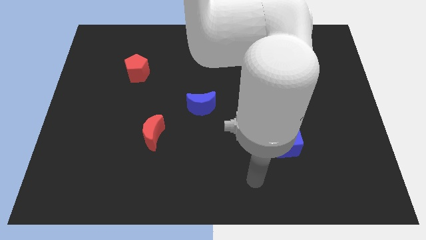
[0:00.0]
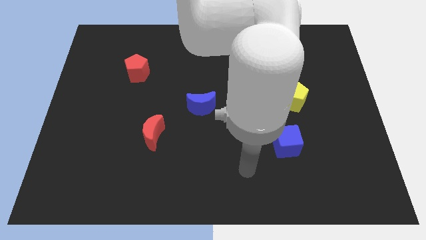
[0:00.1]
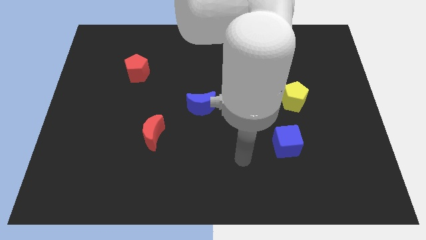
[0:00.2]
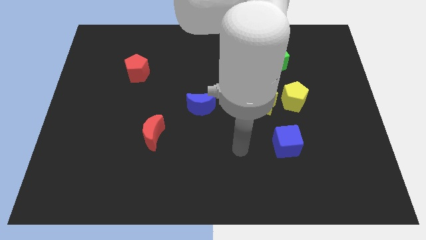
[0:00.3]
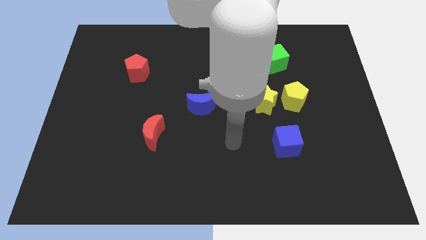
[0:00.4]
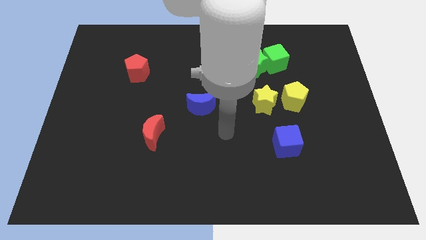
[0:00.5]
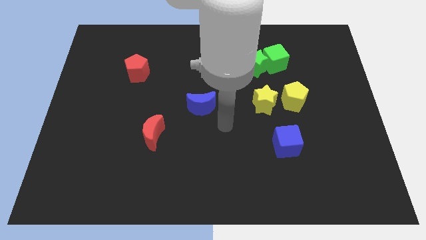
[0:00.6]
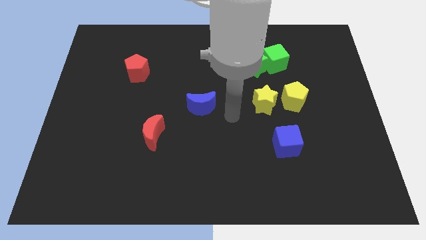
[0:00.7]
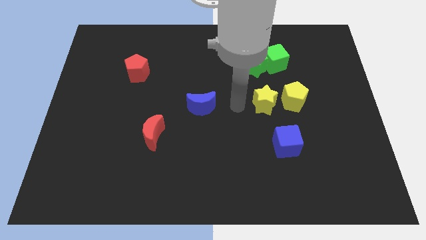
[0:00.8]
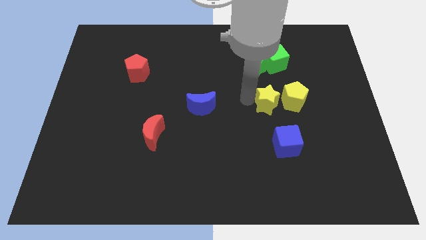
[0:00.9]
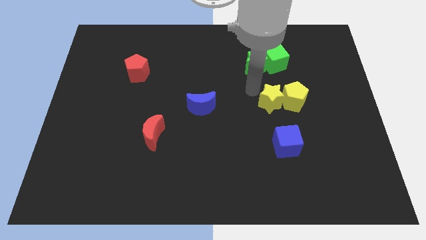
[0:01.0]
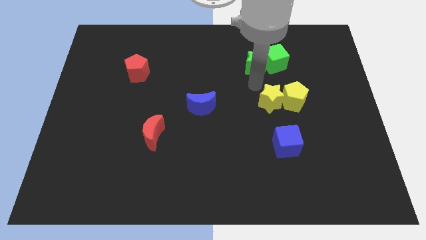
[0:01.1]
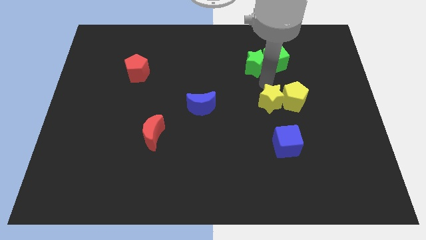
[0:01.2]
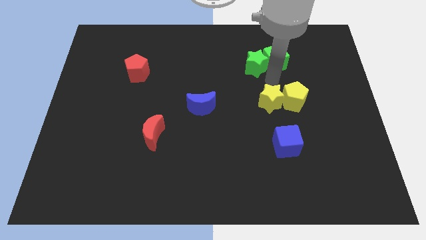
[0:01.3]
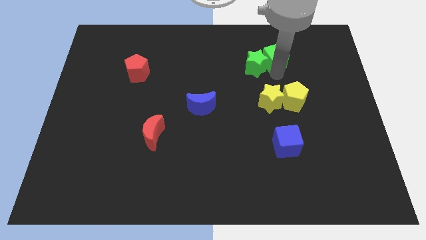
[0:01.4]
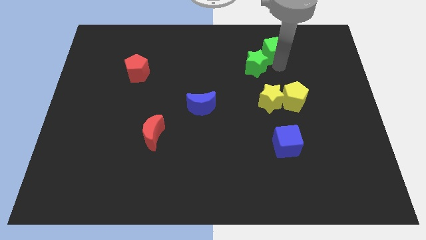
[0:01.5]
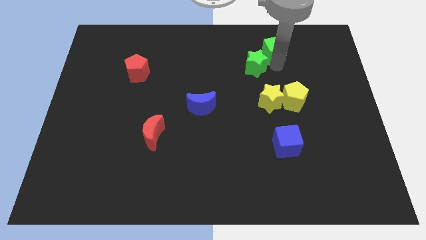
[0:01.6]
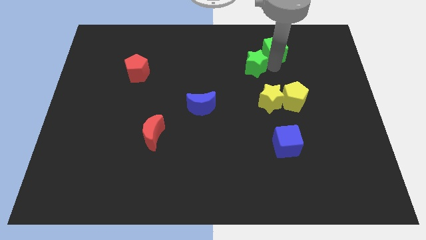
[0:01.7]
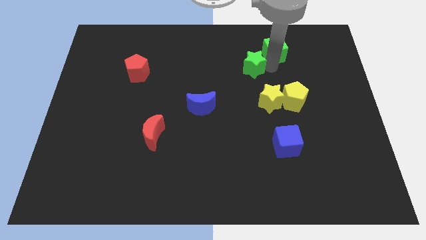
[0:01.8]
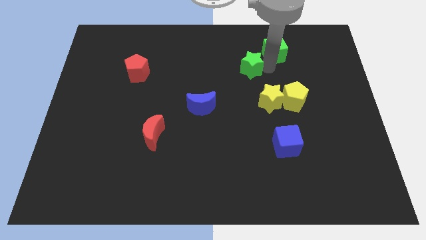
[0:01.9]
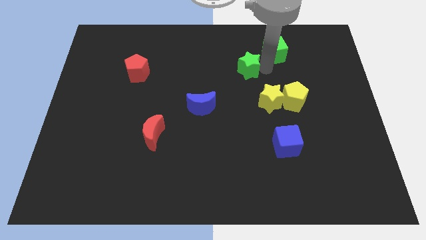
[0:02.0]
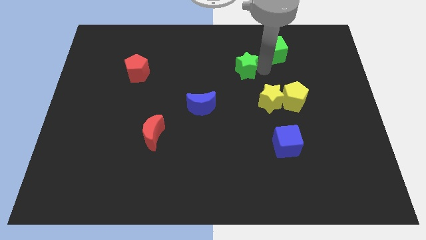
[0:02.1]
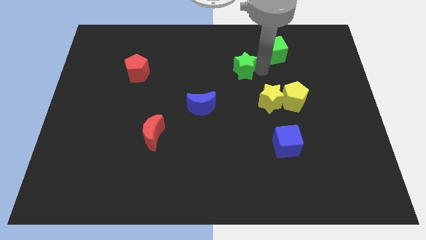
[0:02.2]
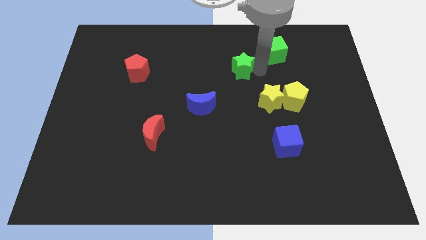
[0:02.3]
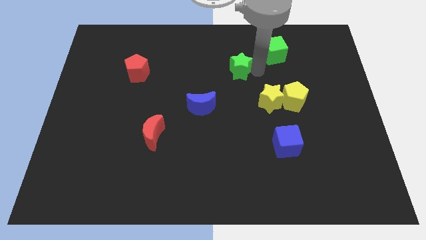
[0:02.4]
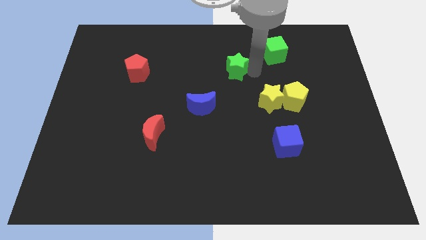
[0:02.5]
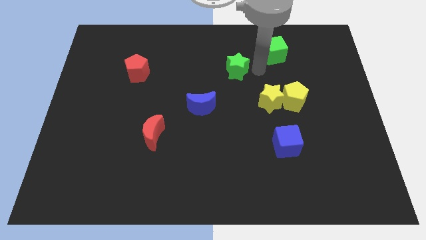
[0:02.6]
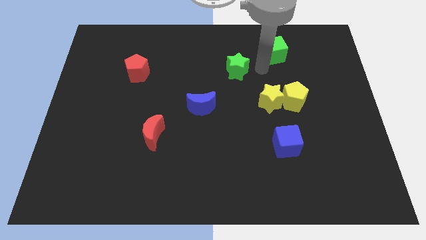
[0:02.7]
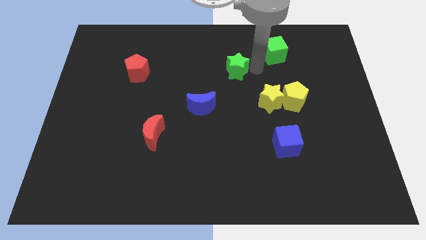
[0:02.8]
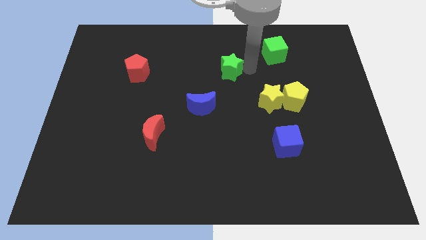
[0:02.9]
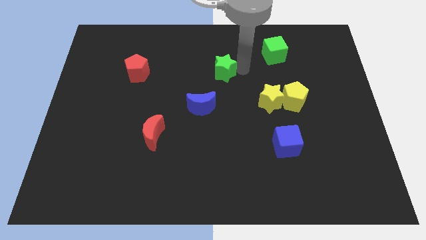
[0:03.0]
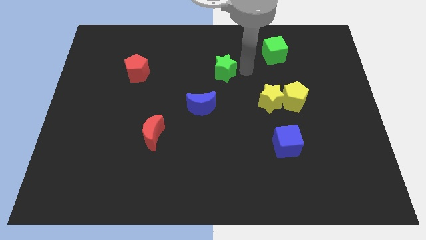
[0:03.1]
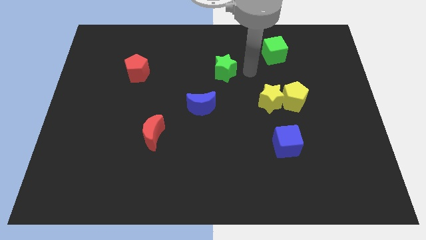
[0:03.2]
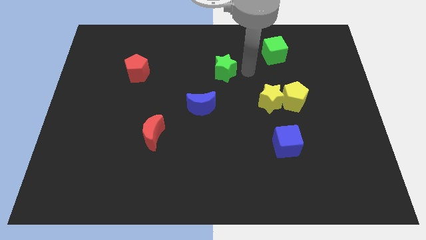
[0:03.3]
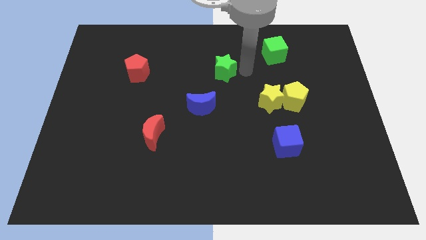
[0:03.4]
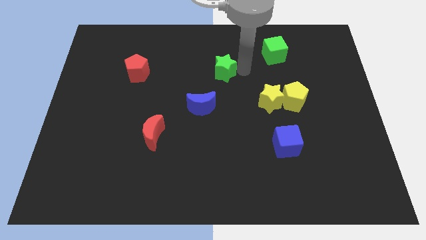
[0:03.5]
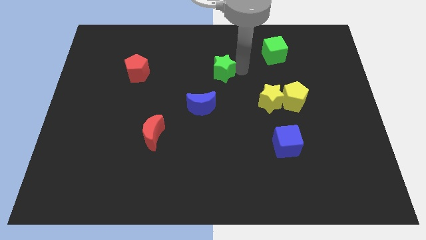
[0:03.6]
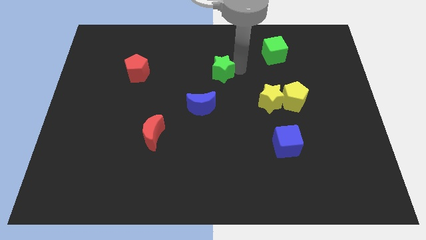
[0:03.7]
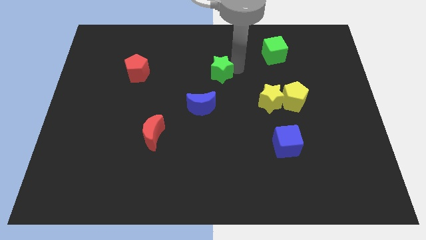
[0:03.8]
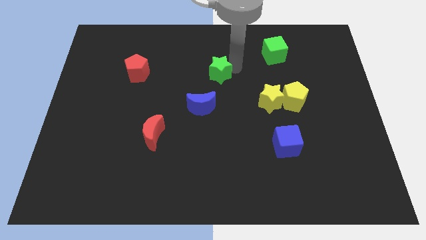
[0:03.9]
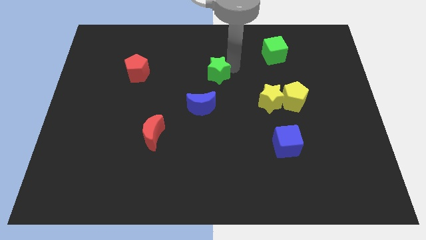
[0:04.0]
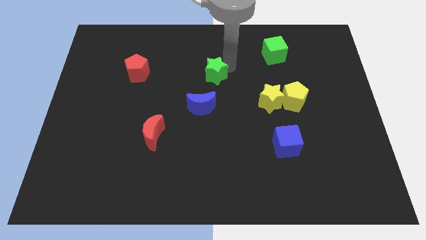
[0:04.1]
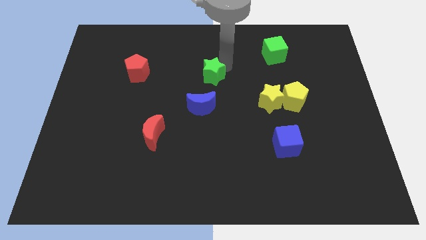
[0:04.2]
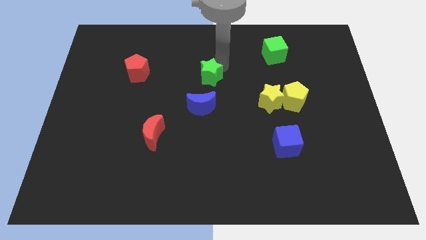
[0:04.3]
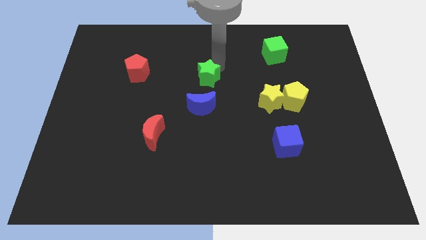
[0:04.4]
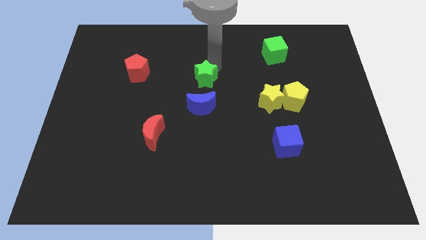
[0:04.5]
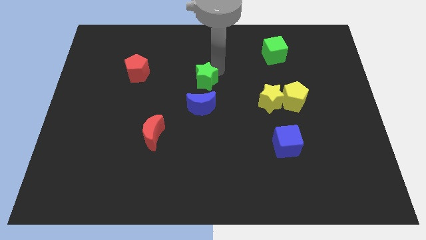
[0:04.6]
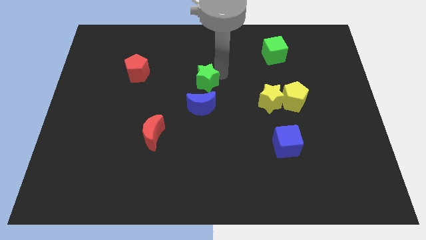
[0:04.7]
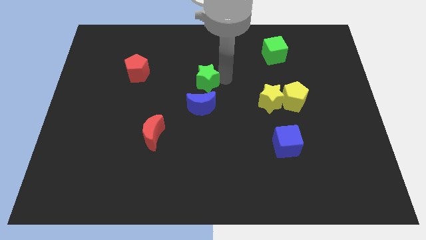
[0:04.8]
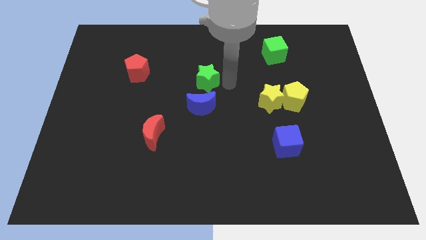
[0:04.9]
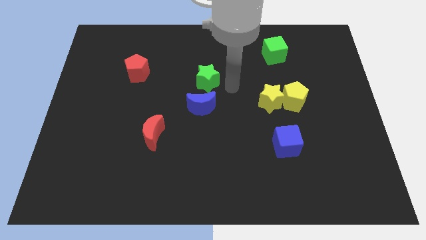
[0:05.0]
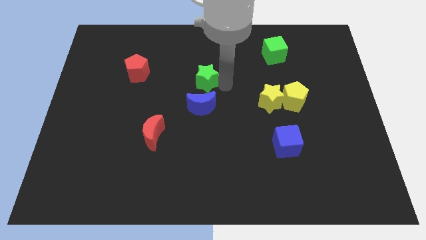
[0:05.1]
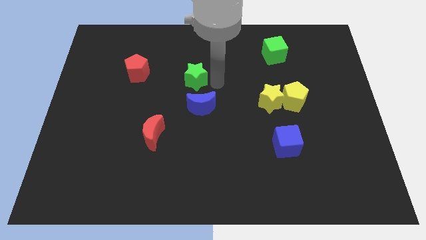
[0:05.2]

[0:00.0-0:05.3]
move the green star right of the red pentagon

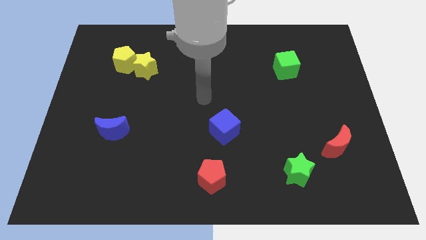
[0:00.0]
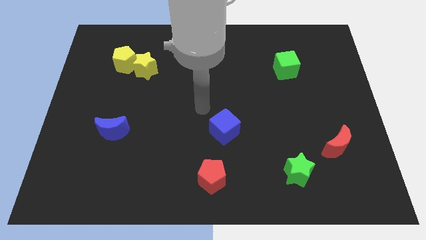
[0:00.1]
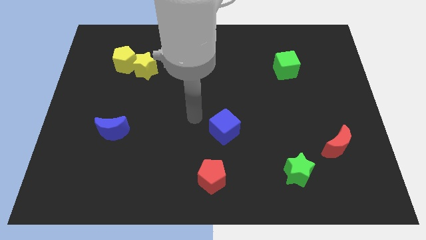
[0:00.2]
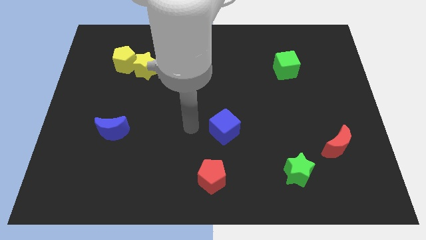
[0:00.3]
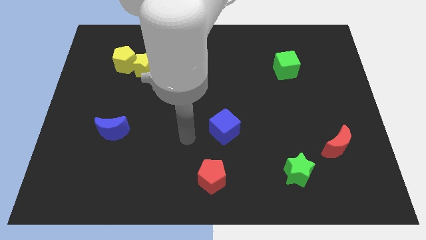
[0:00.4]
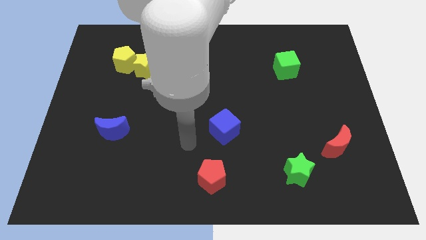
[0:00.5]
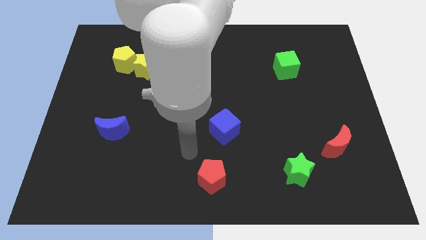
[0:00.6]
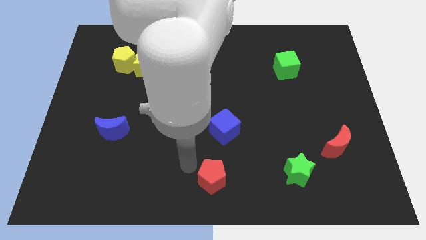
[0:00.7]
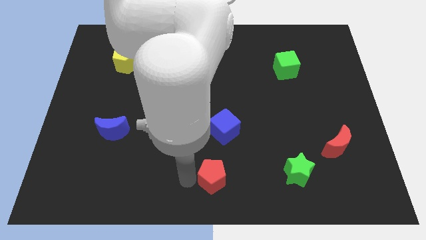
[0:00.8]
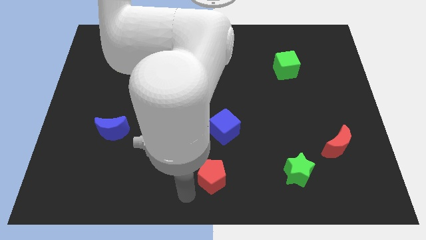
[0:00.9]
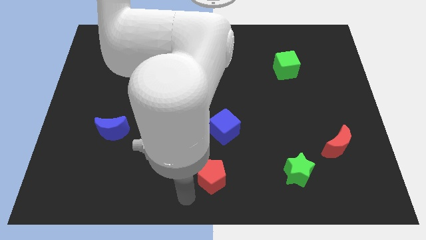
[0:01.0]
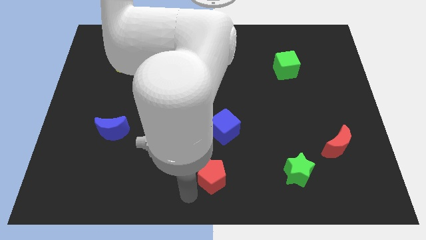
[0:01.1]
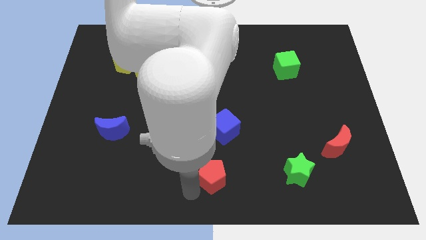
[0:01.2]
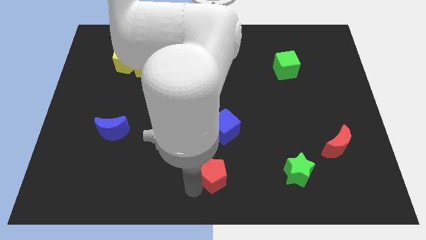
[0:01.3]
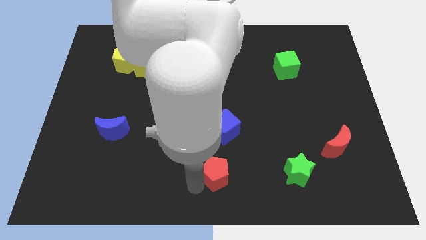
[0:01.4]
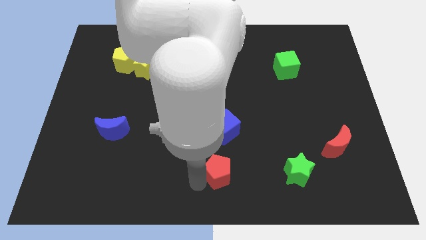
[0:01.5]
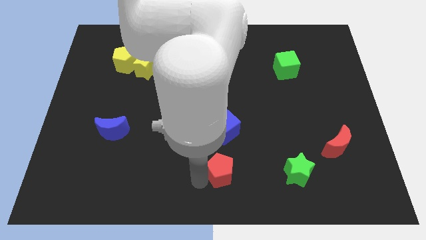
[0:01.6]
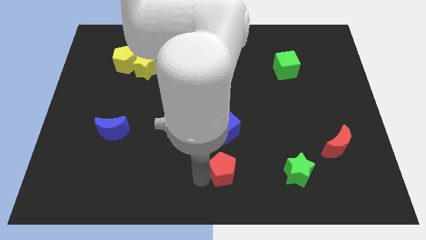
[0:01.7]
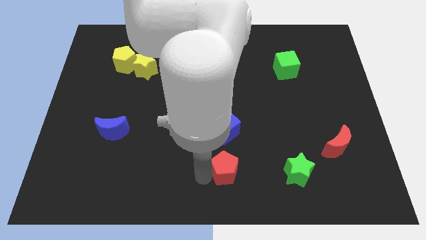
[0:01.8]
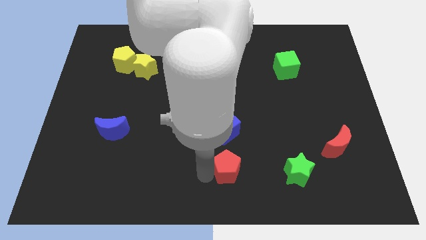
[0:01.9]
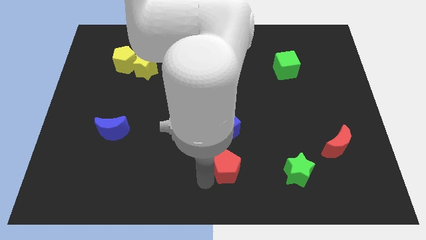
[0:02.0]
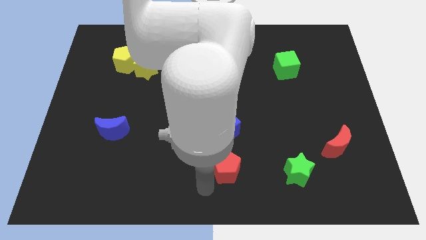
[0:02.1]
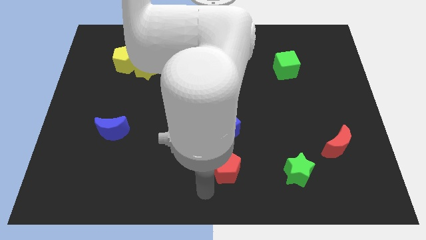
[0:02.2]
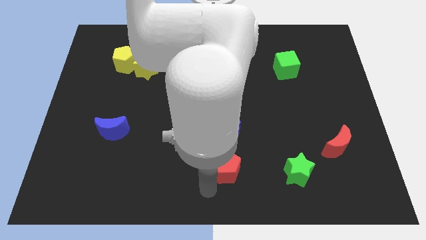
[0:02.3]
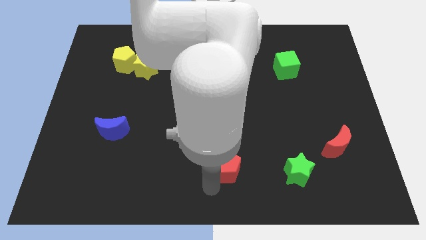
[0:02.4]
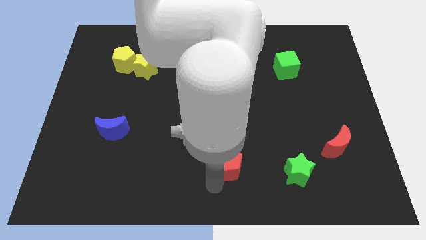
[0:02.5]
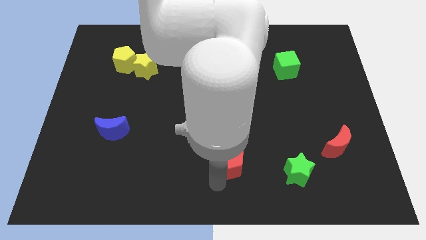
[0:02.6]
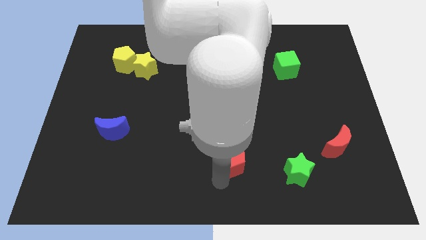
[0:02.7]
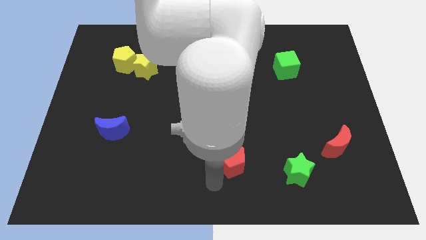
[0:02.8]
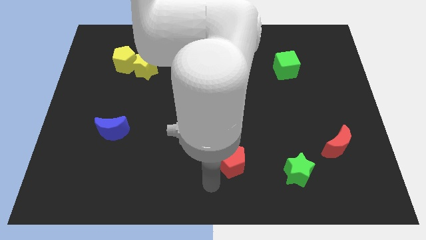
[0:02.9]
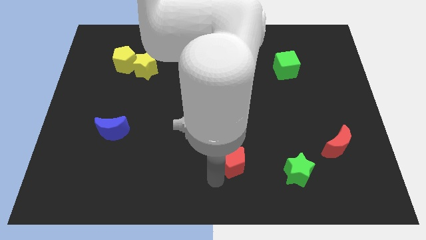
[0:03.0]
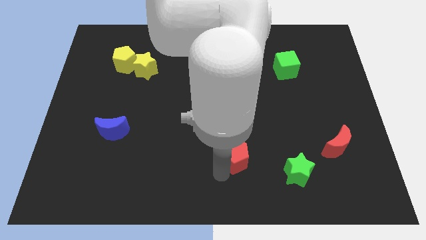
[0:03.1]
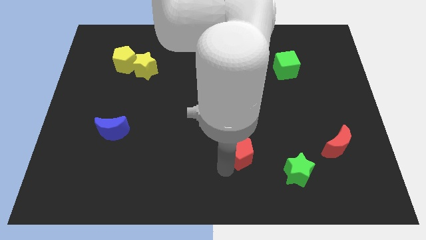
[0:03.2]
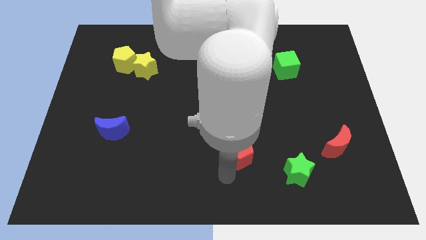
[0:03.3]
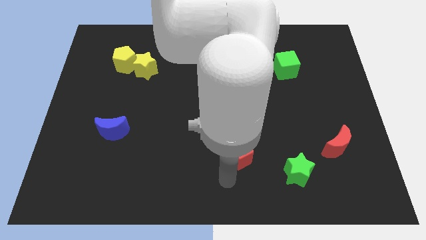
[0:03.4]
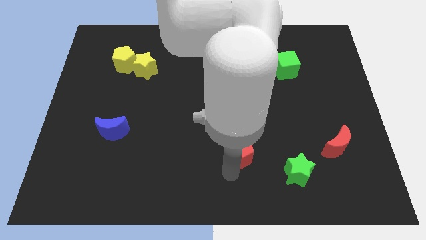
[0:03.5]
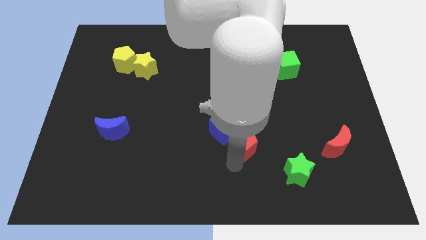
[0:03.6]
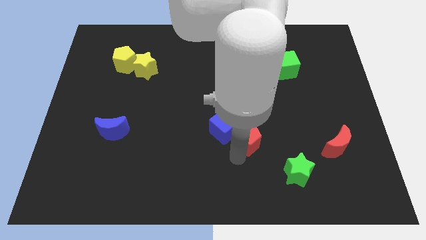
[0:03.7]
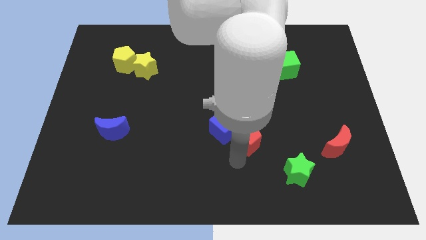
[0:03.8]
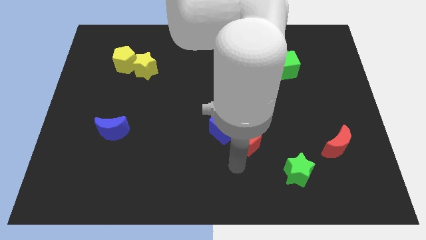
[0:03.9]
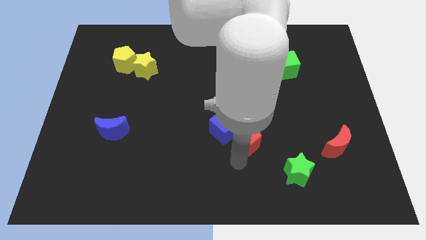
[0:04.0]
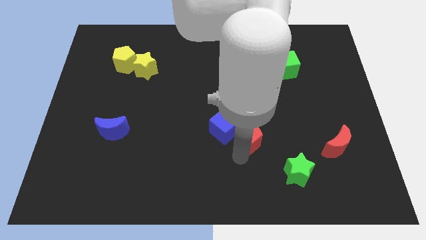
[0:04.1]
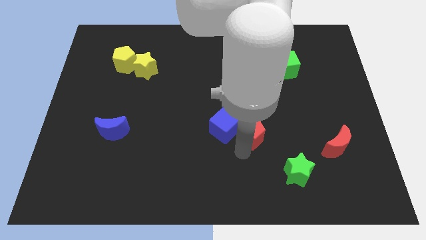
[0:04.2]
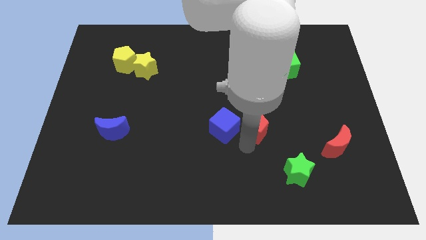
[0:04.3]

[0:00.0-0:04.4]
slide the red pentagon diagonally up and to the right of the blue cube
